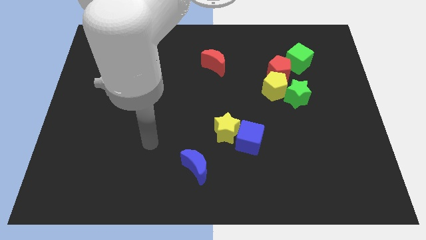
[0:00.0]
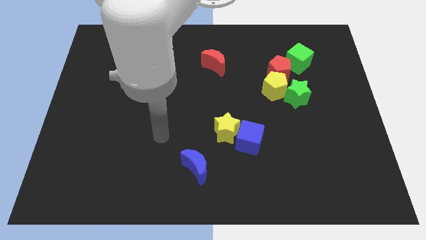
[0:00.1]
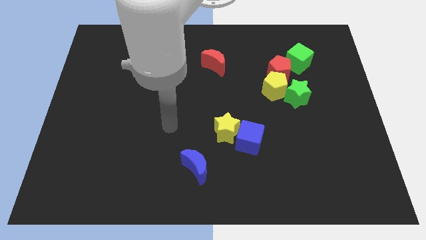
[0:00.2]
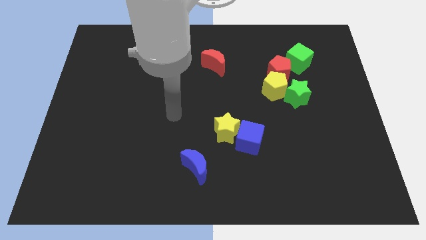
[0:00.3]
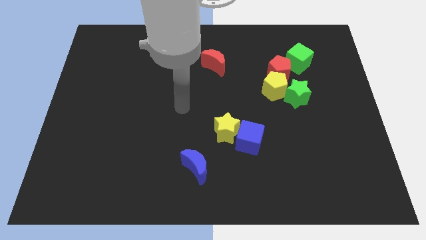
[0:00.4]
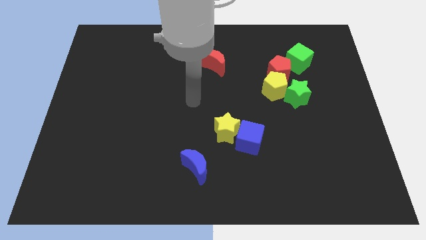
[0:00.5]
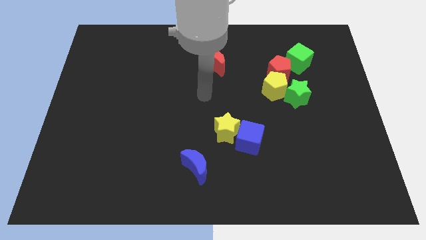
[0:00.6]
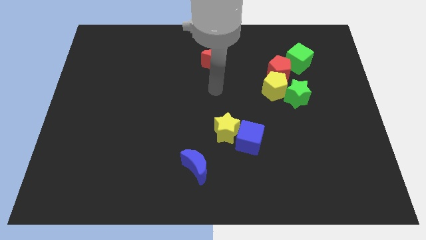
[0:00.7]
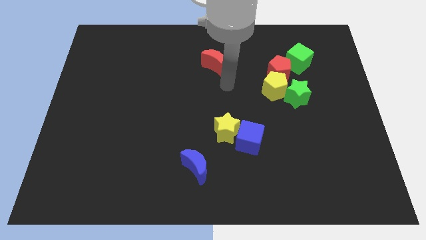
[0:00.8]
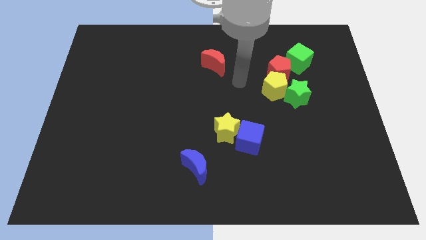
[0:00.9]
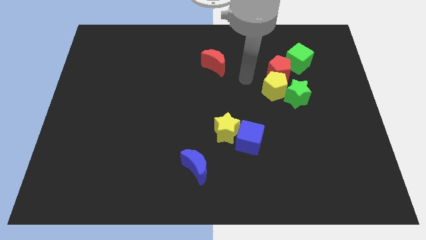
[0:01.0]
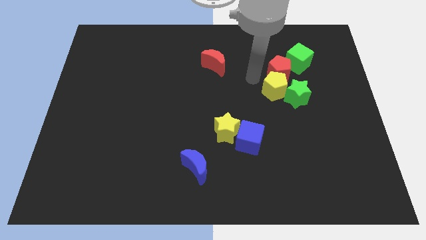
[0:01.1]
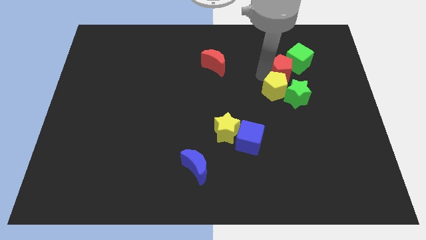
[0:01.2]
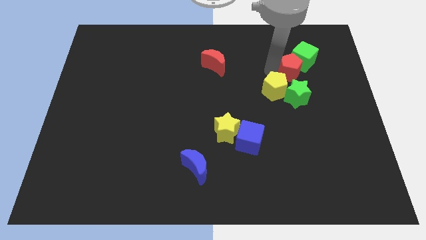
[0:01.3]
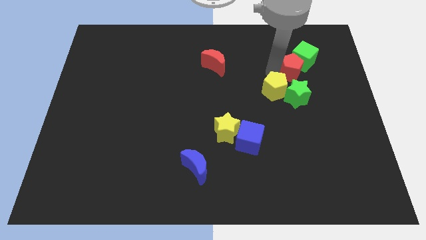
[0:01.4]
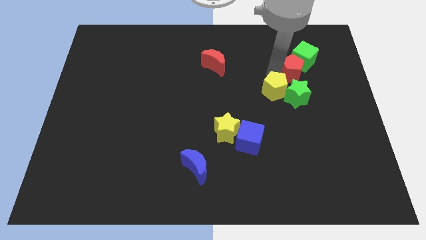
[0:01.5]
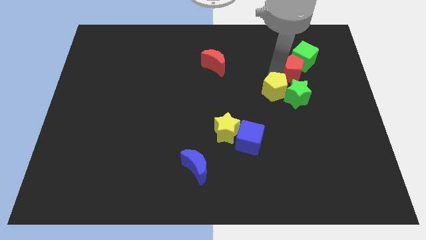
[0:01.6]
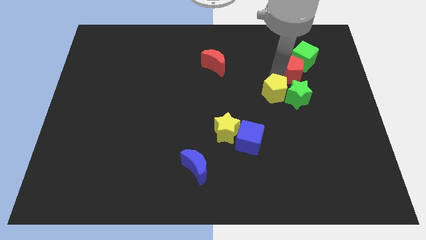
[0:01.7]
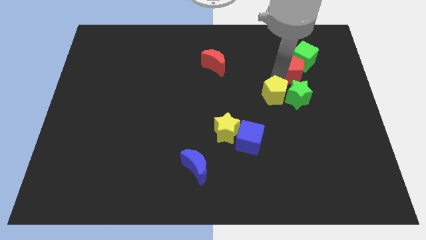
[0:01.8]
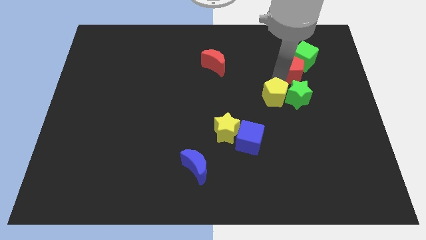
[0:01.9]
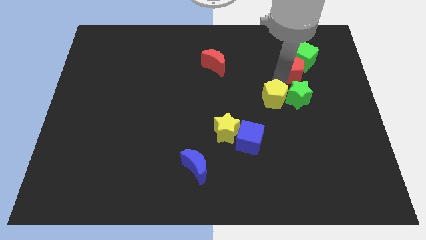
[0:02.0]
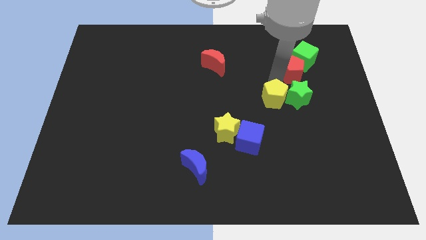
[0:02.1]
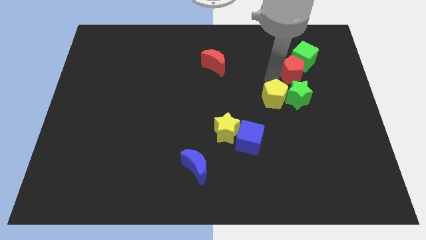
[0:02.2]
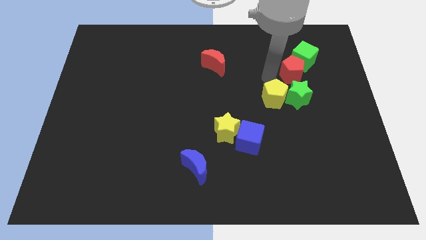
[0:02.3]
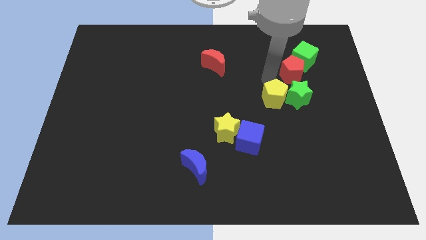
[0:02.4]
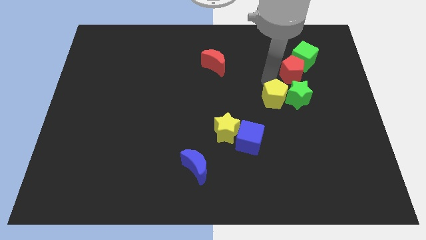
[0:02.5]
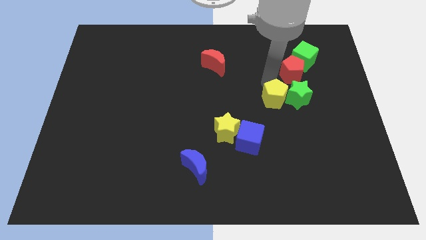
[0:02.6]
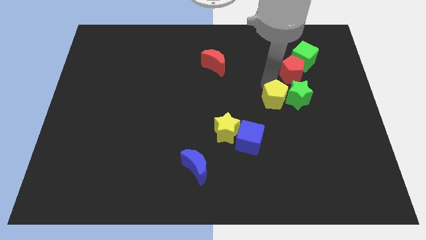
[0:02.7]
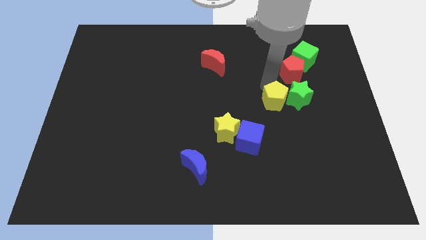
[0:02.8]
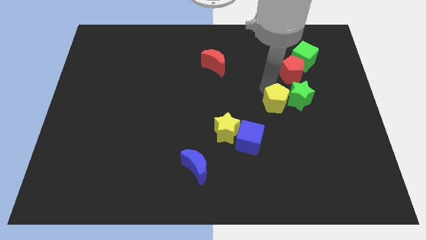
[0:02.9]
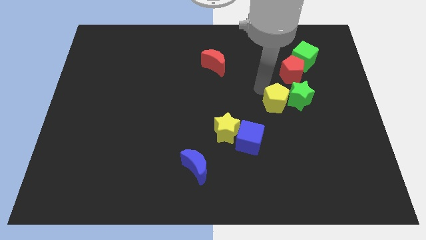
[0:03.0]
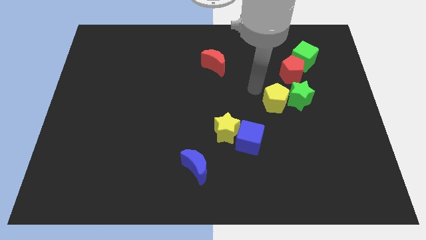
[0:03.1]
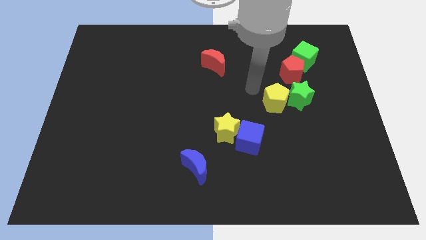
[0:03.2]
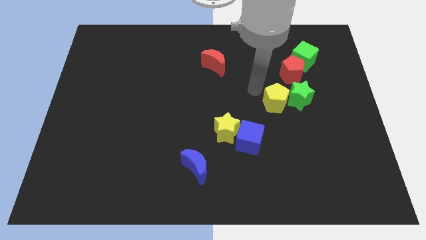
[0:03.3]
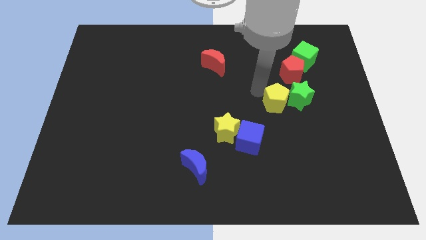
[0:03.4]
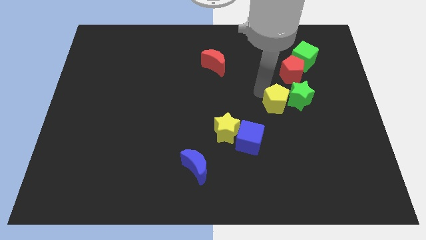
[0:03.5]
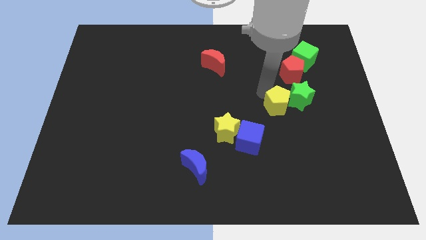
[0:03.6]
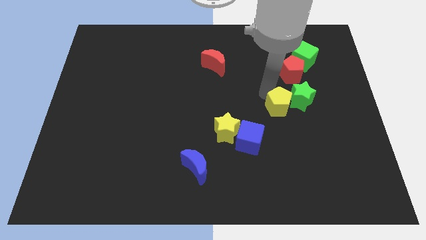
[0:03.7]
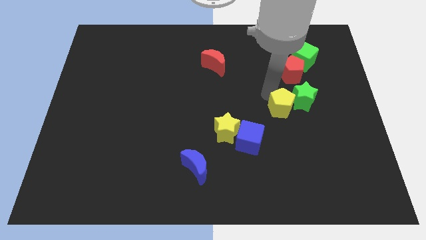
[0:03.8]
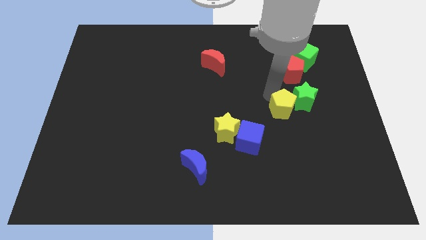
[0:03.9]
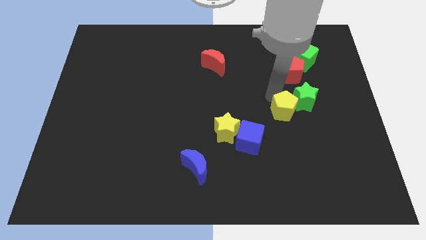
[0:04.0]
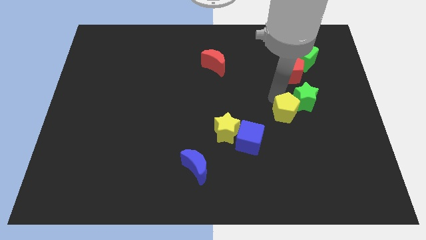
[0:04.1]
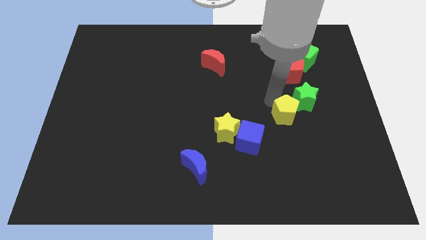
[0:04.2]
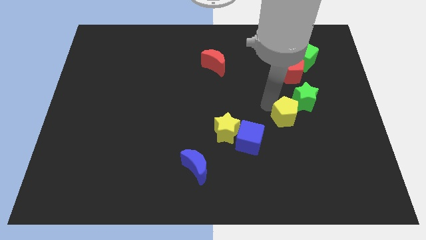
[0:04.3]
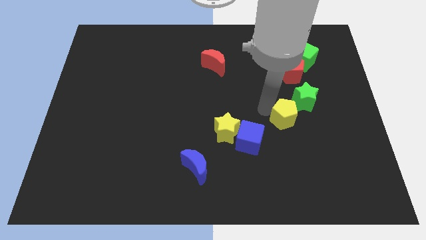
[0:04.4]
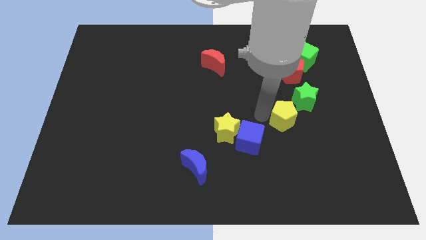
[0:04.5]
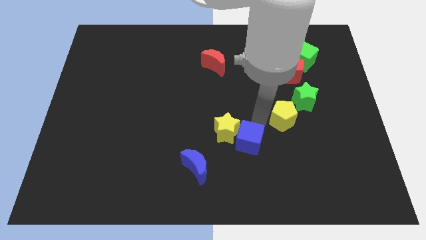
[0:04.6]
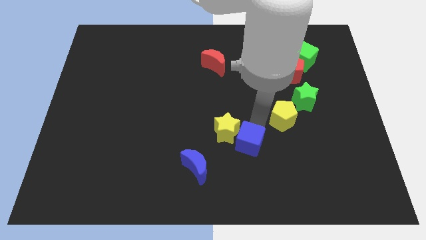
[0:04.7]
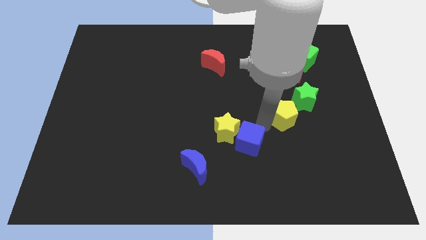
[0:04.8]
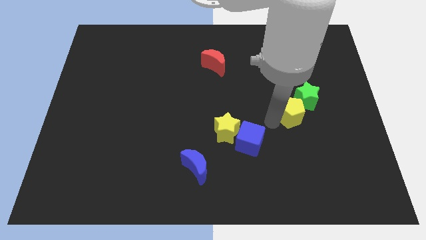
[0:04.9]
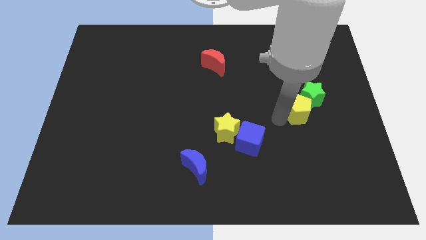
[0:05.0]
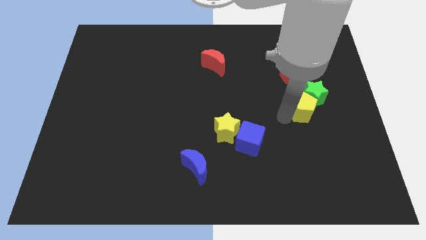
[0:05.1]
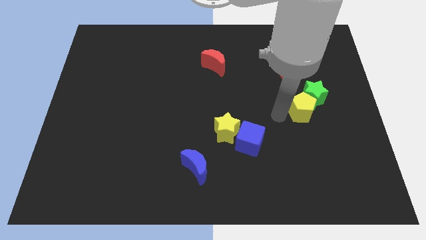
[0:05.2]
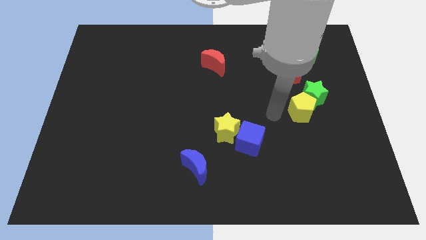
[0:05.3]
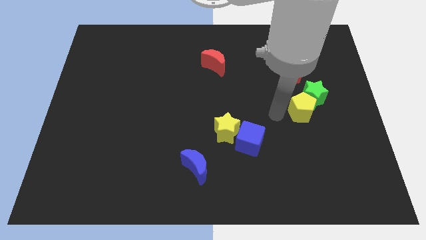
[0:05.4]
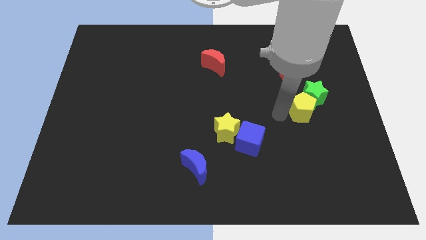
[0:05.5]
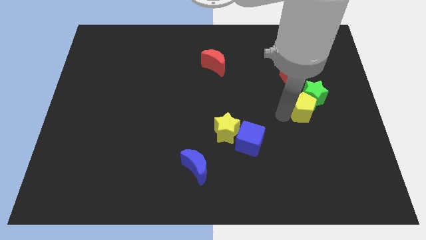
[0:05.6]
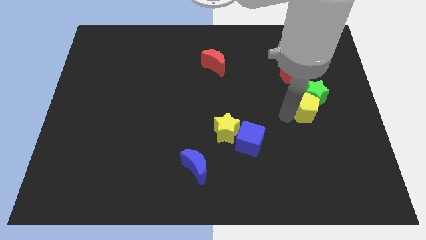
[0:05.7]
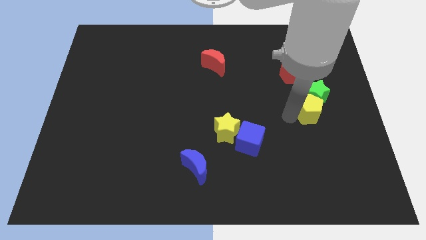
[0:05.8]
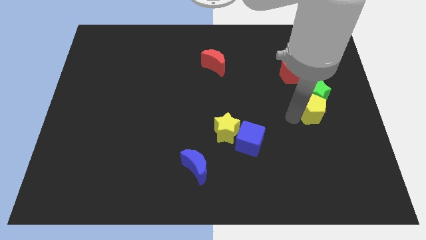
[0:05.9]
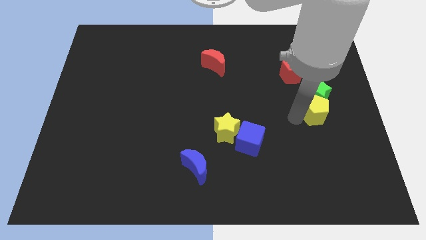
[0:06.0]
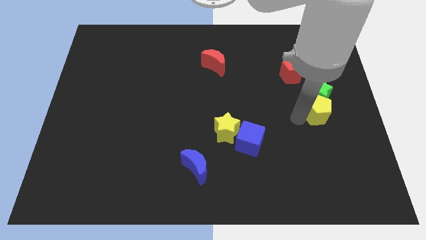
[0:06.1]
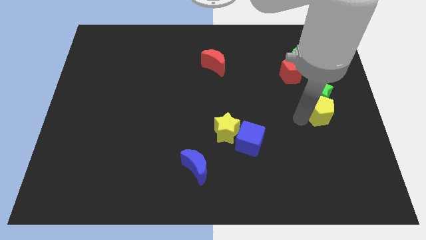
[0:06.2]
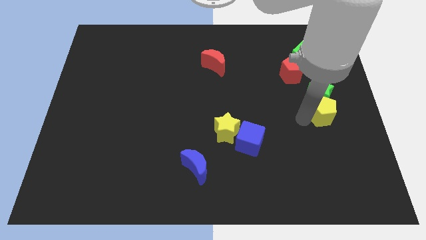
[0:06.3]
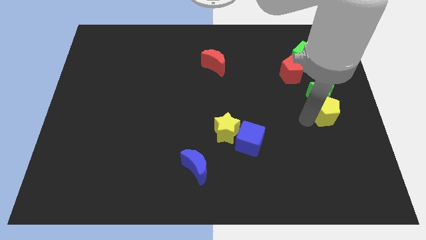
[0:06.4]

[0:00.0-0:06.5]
move the yellow pentagon to the center right

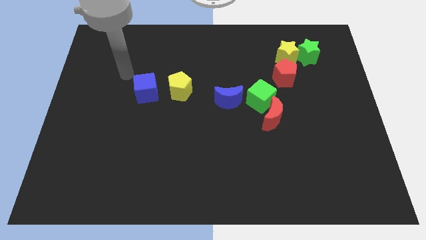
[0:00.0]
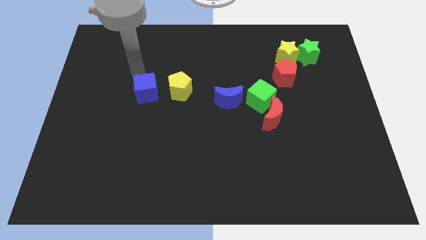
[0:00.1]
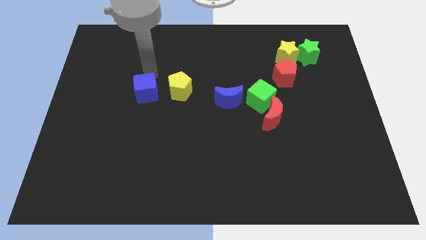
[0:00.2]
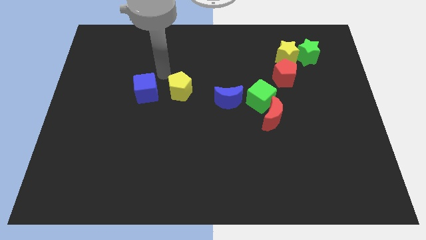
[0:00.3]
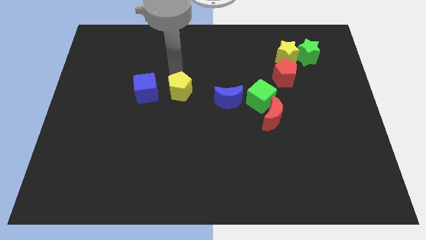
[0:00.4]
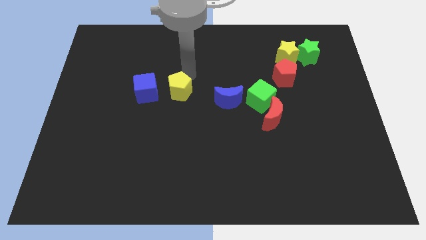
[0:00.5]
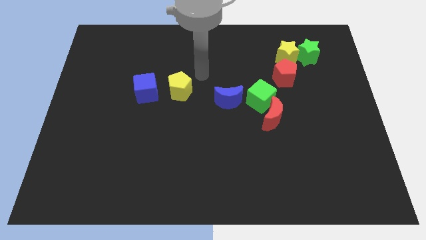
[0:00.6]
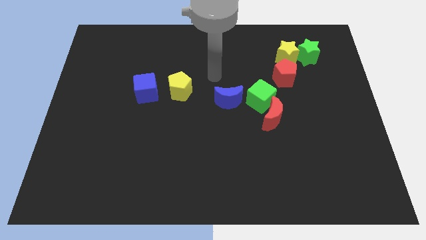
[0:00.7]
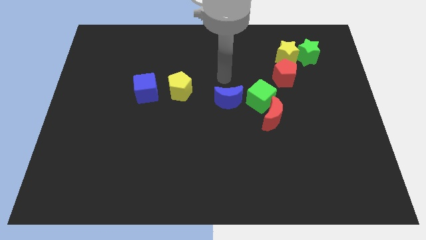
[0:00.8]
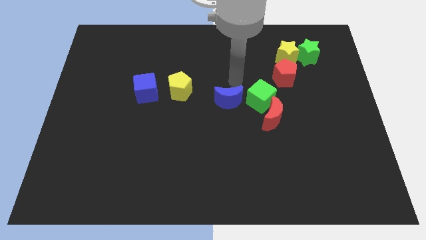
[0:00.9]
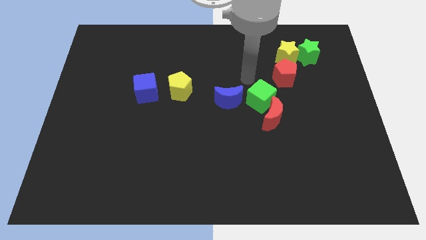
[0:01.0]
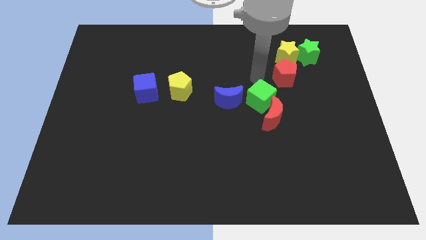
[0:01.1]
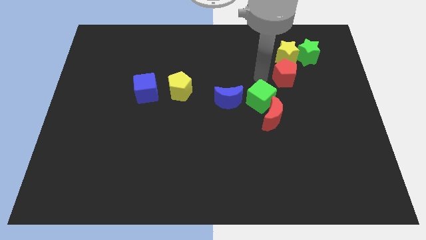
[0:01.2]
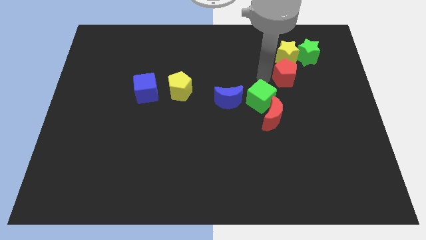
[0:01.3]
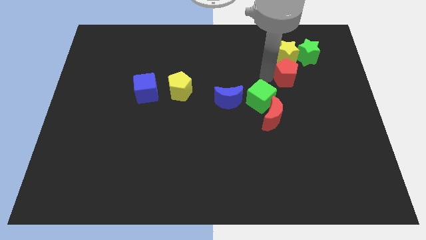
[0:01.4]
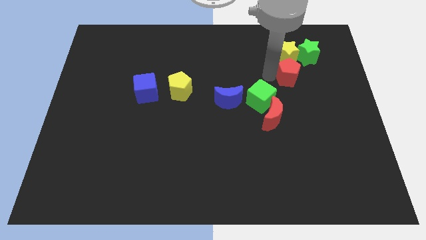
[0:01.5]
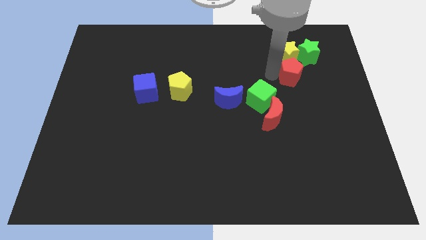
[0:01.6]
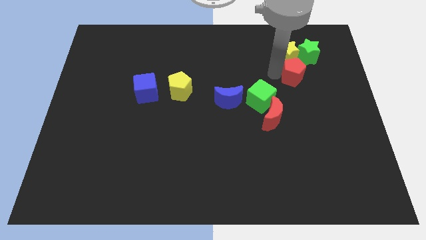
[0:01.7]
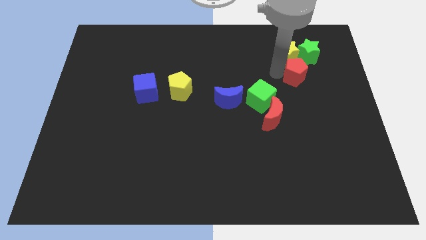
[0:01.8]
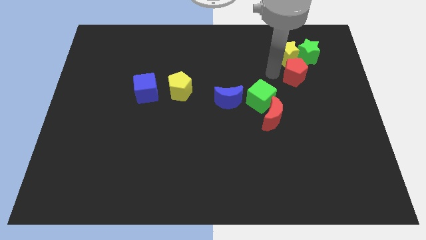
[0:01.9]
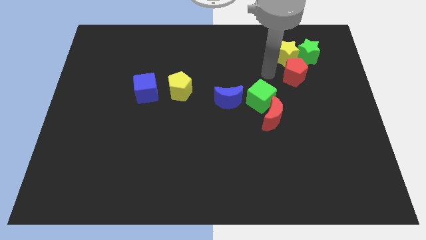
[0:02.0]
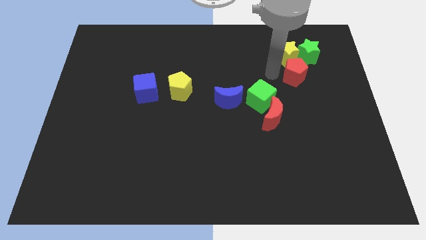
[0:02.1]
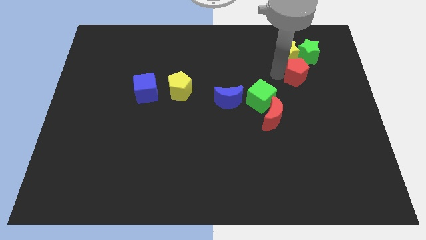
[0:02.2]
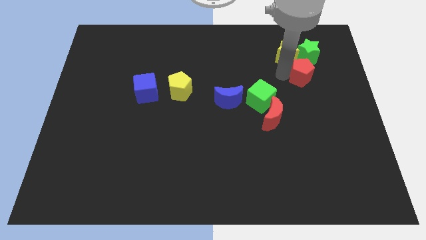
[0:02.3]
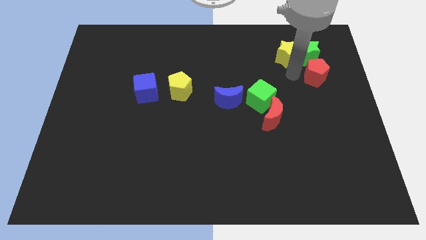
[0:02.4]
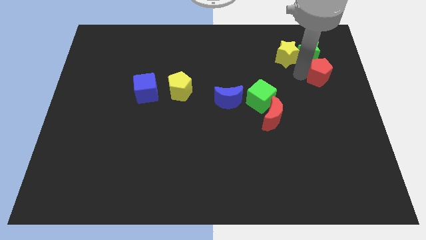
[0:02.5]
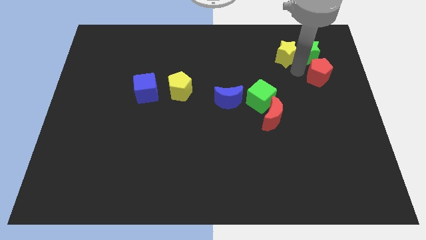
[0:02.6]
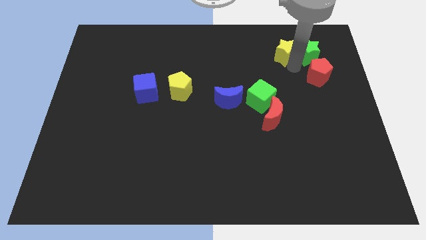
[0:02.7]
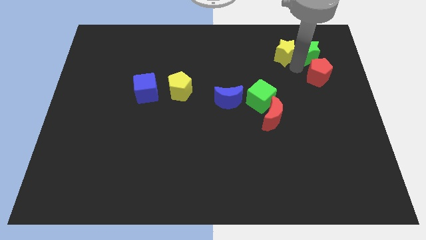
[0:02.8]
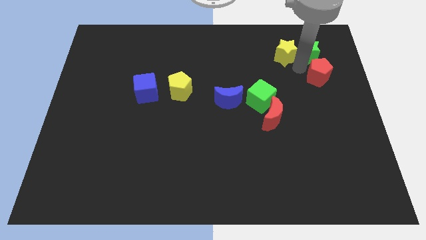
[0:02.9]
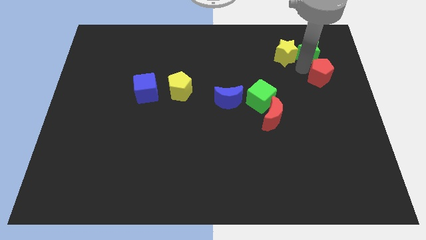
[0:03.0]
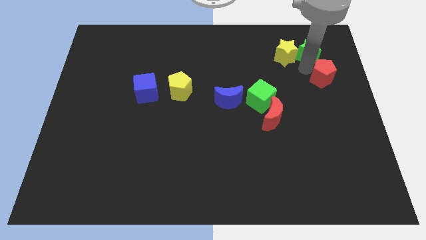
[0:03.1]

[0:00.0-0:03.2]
push the red pentagon to the right side of the board
